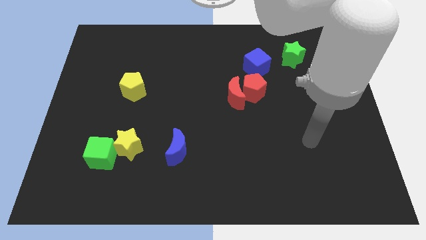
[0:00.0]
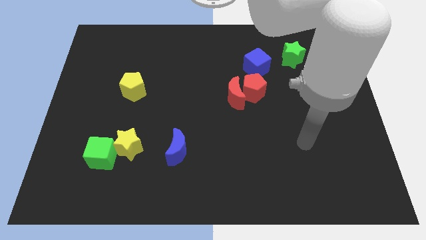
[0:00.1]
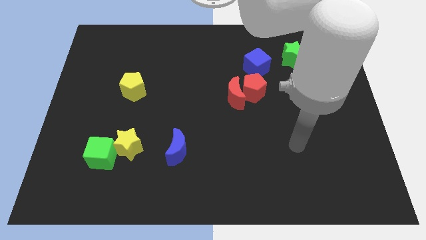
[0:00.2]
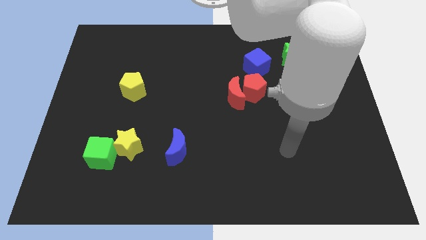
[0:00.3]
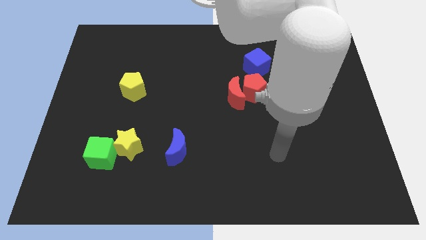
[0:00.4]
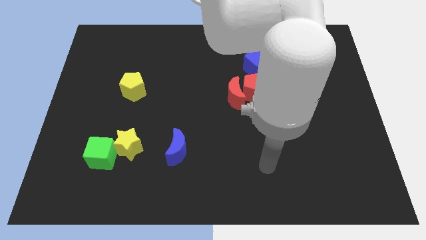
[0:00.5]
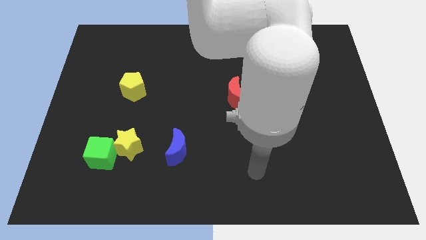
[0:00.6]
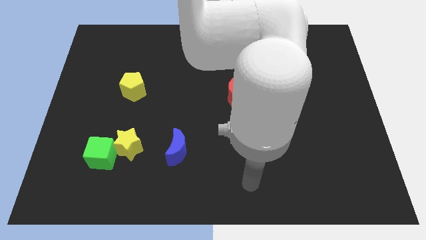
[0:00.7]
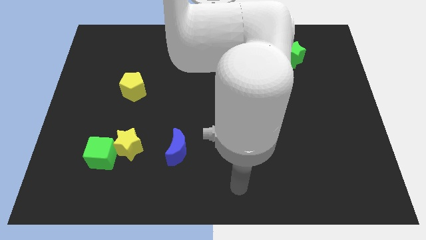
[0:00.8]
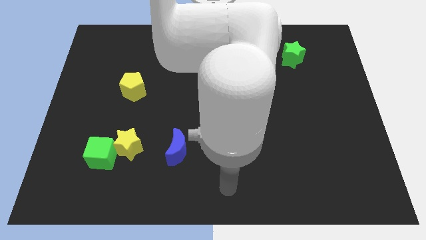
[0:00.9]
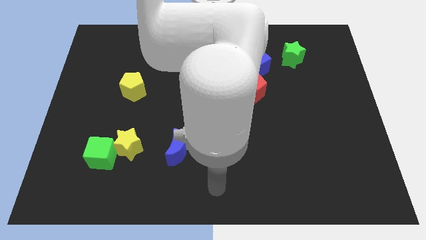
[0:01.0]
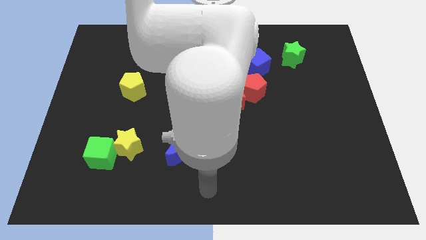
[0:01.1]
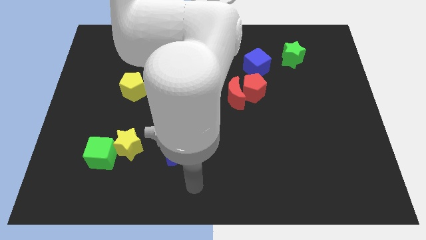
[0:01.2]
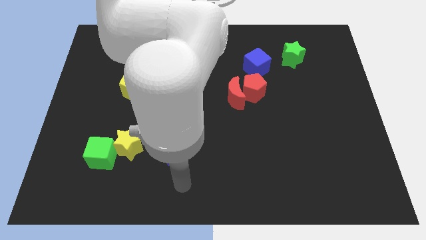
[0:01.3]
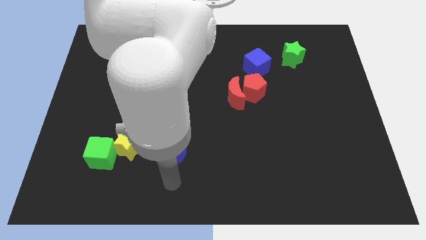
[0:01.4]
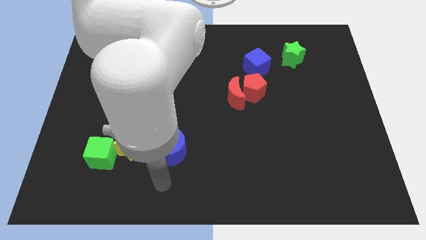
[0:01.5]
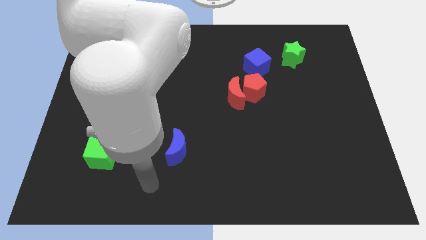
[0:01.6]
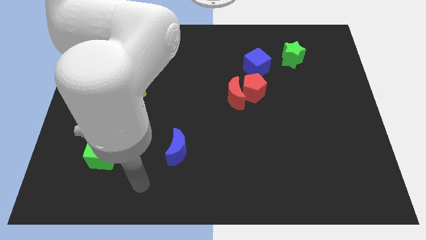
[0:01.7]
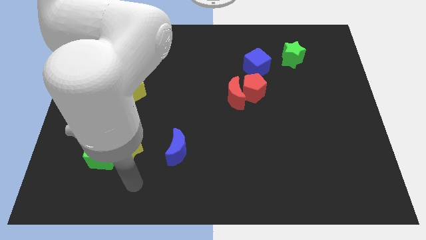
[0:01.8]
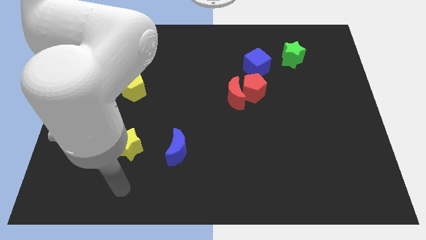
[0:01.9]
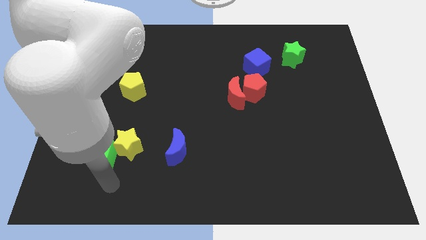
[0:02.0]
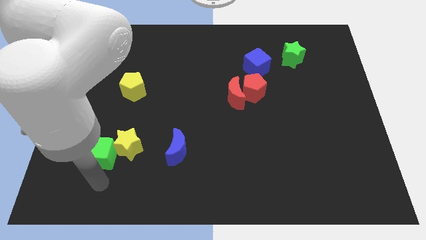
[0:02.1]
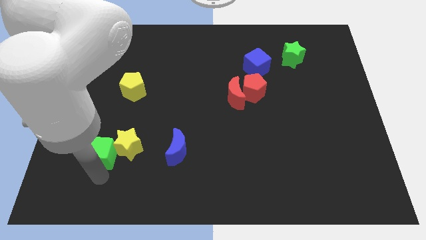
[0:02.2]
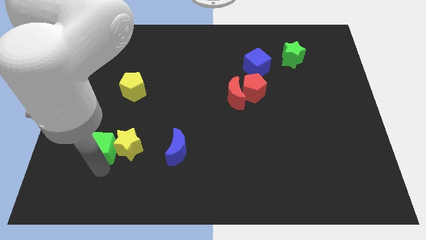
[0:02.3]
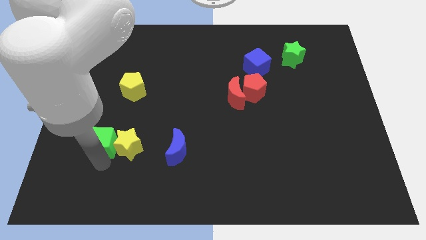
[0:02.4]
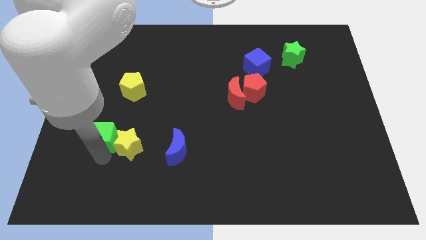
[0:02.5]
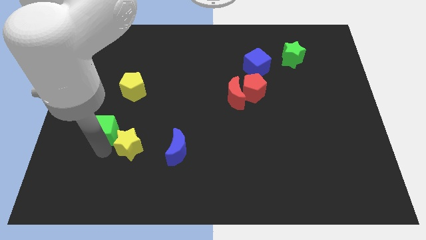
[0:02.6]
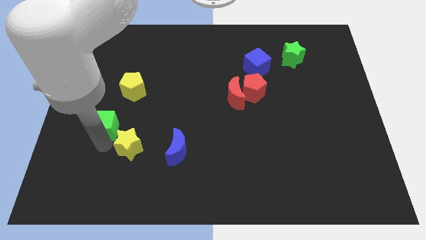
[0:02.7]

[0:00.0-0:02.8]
push the green cube somewhat up

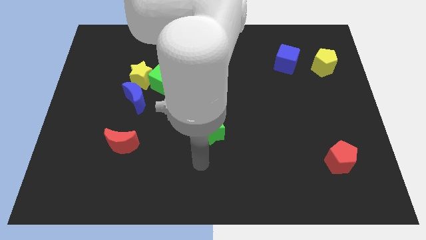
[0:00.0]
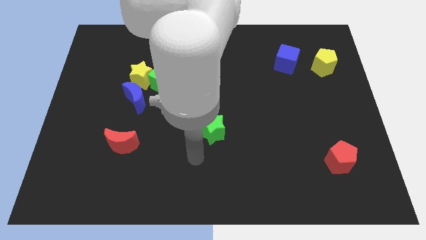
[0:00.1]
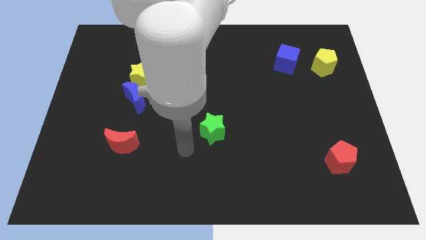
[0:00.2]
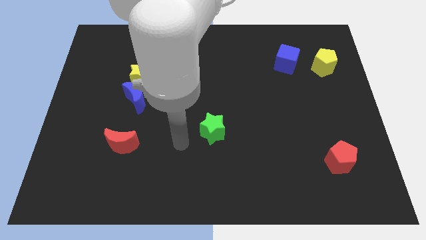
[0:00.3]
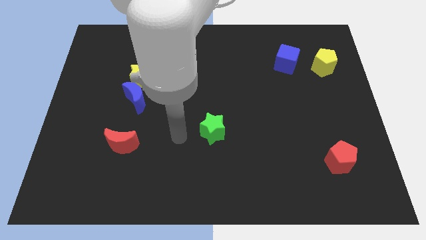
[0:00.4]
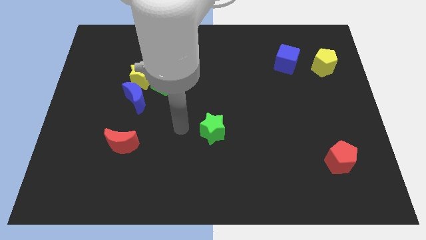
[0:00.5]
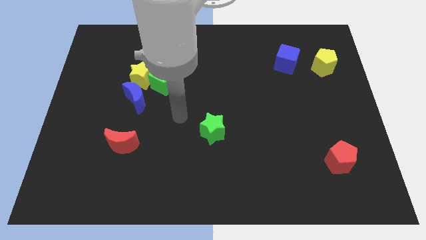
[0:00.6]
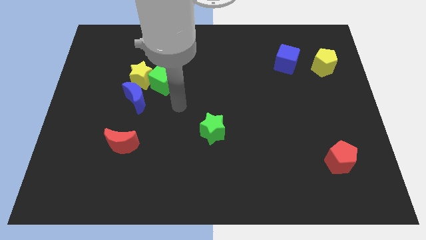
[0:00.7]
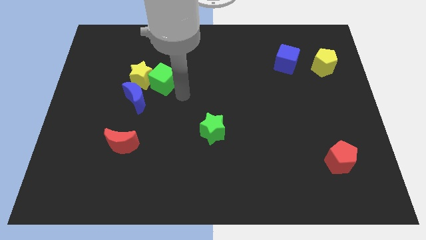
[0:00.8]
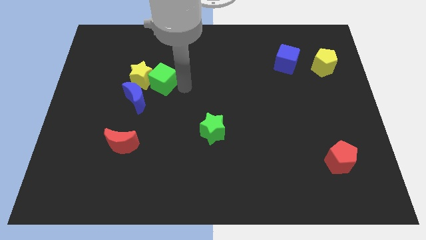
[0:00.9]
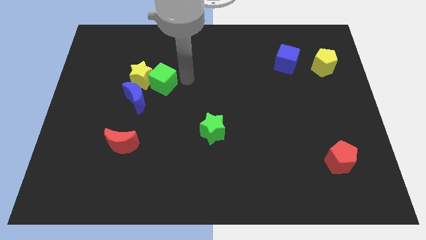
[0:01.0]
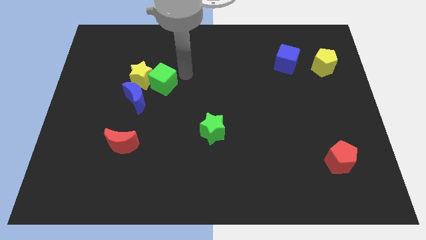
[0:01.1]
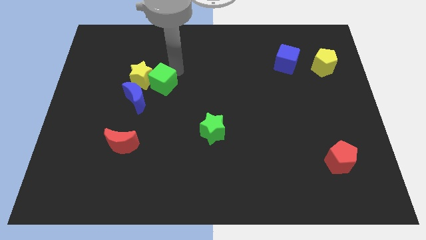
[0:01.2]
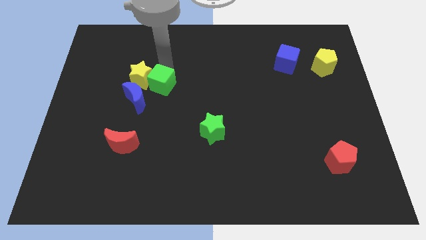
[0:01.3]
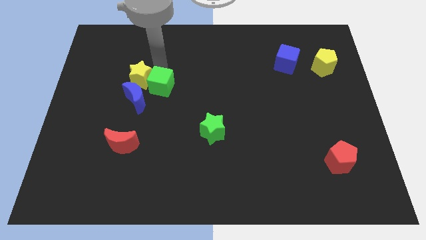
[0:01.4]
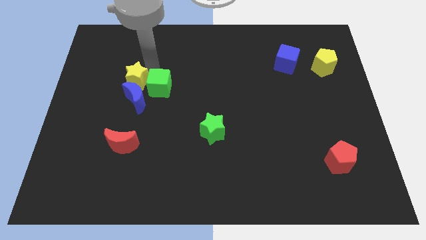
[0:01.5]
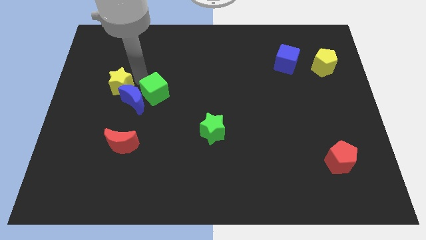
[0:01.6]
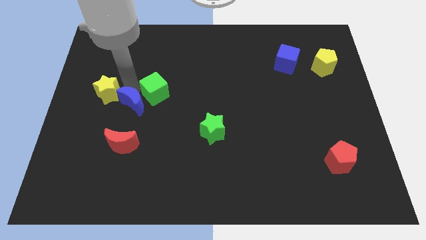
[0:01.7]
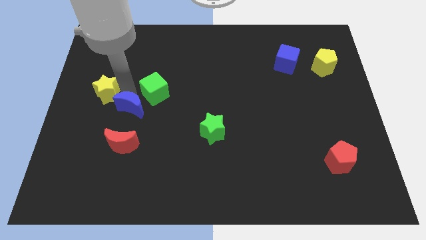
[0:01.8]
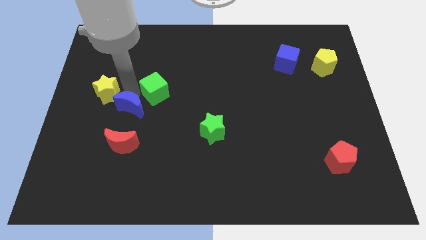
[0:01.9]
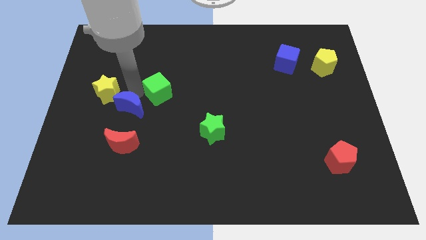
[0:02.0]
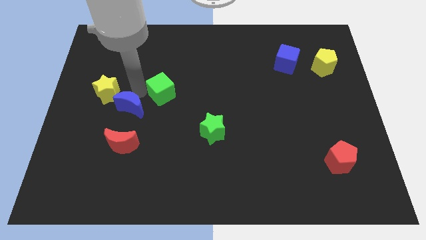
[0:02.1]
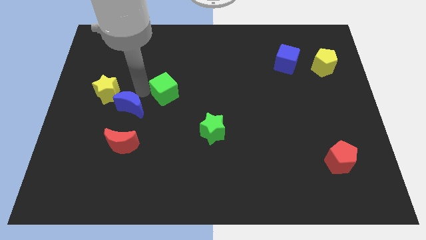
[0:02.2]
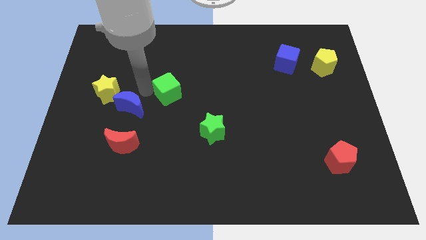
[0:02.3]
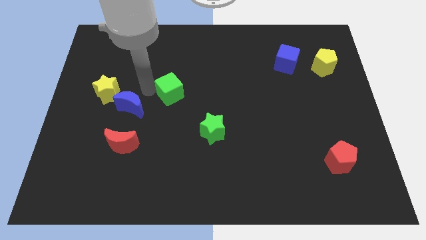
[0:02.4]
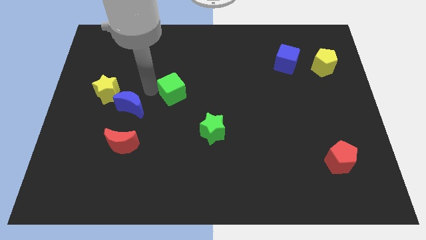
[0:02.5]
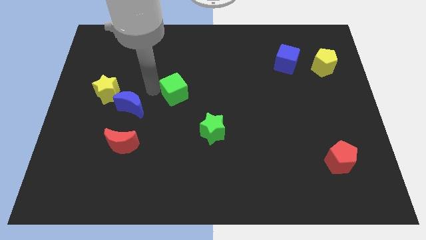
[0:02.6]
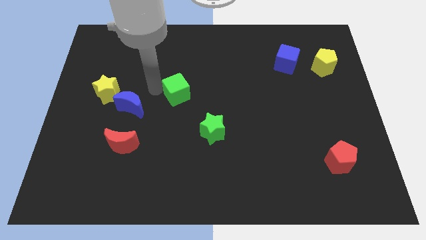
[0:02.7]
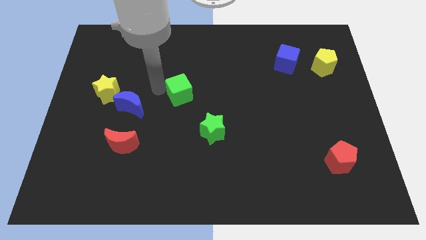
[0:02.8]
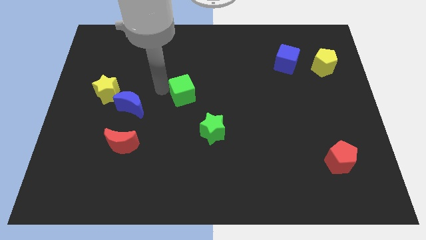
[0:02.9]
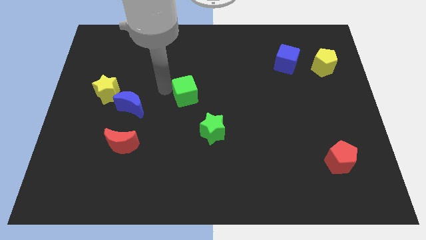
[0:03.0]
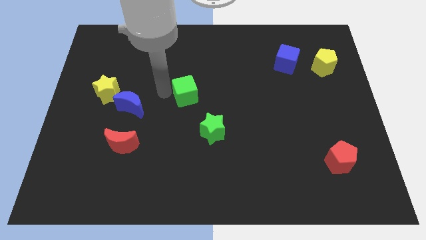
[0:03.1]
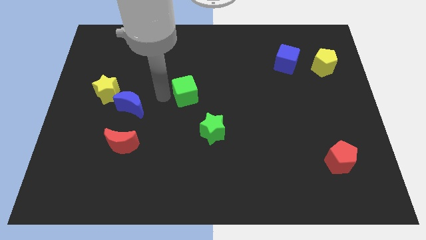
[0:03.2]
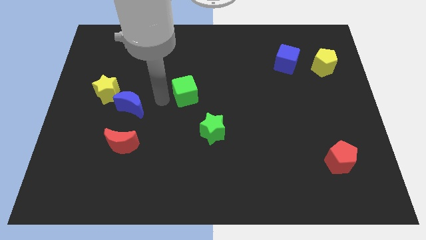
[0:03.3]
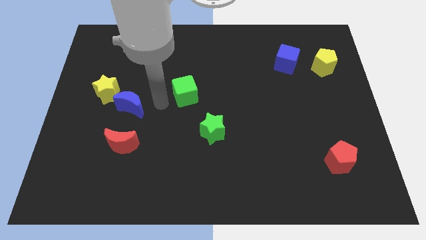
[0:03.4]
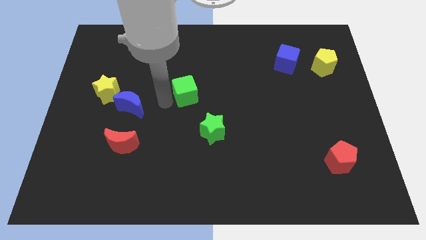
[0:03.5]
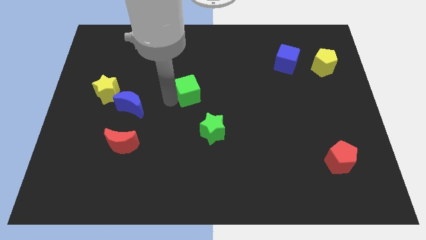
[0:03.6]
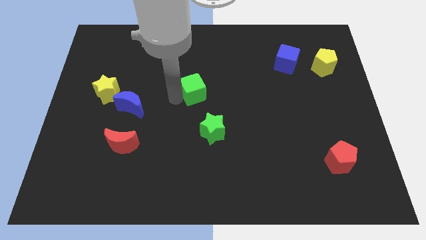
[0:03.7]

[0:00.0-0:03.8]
slightly push the green cube right

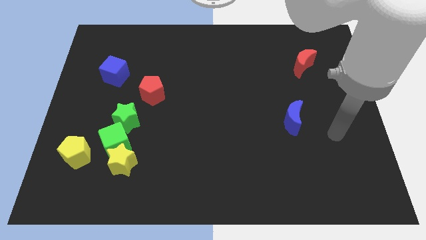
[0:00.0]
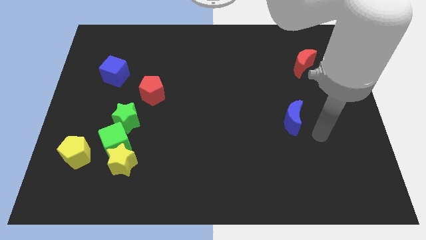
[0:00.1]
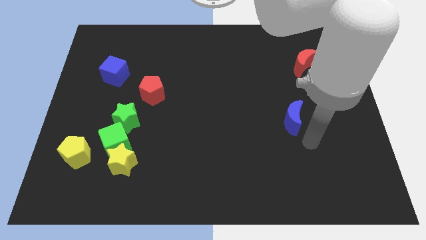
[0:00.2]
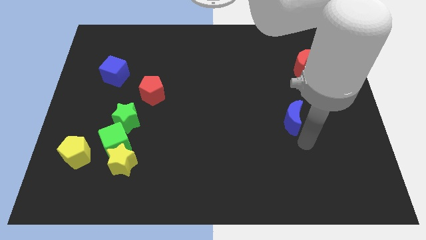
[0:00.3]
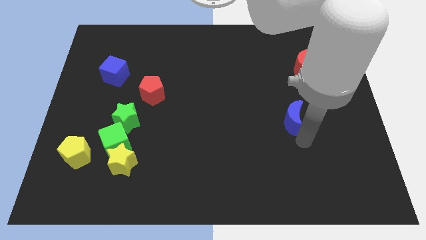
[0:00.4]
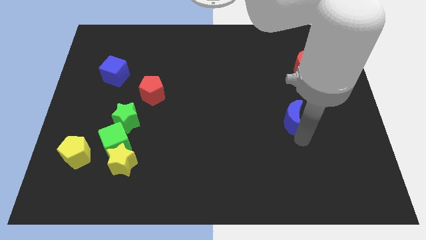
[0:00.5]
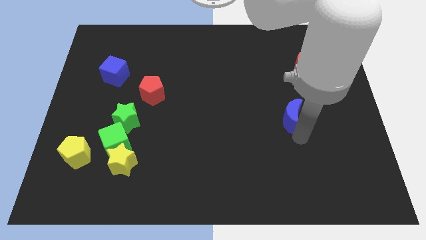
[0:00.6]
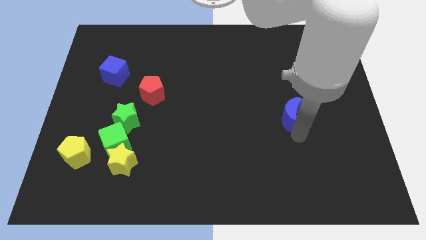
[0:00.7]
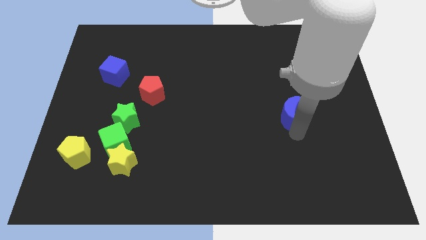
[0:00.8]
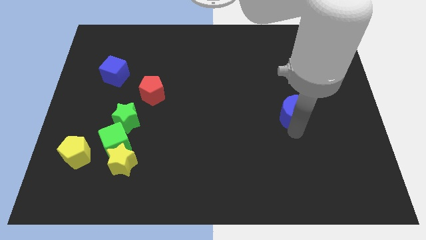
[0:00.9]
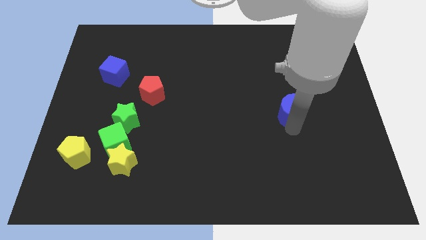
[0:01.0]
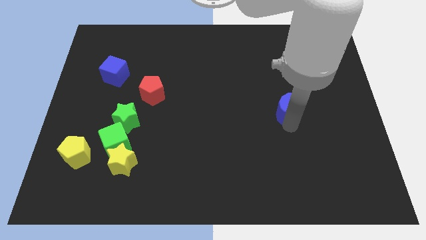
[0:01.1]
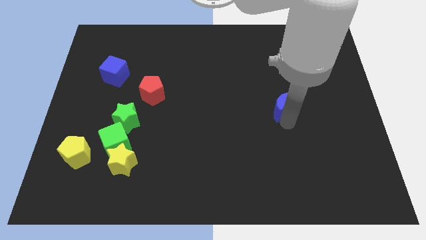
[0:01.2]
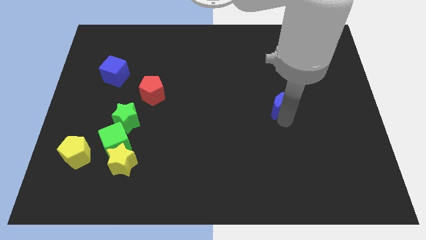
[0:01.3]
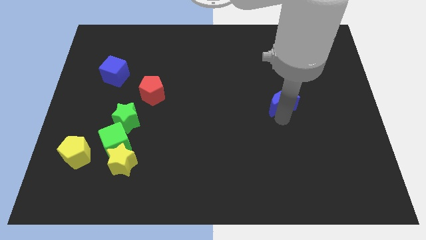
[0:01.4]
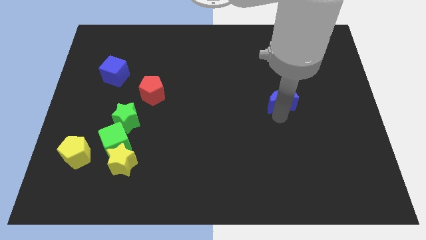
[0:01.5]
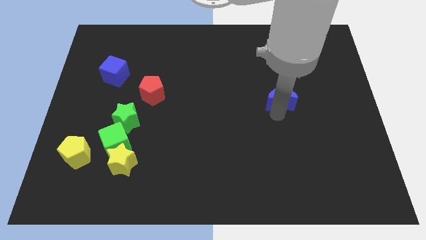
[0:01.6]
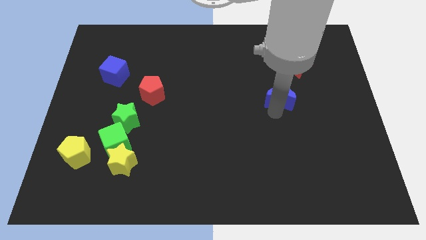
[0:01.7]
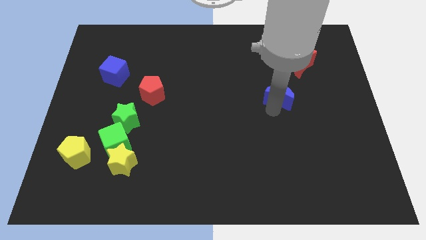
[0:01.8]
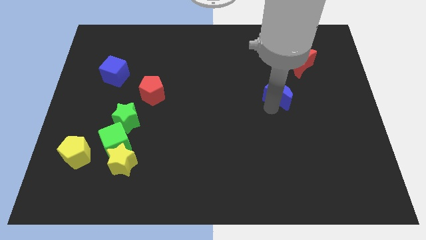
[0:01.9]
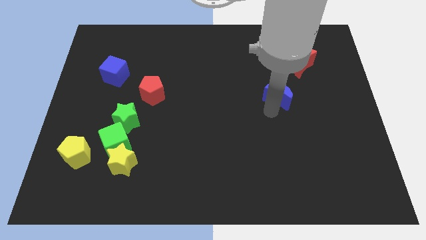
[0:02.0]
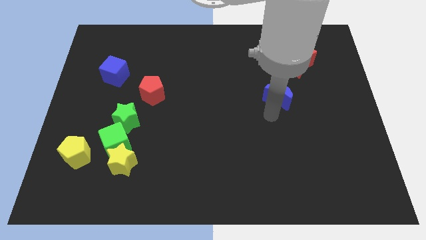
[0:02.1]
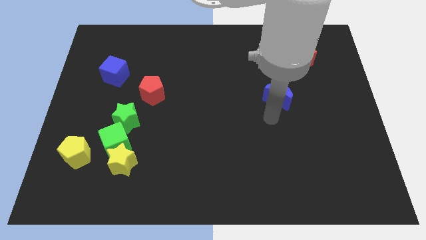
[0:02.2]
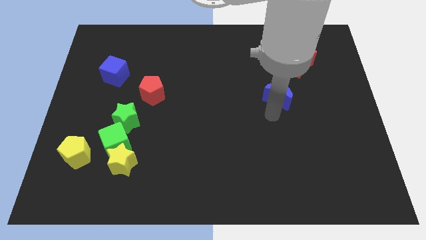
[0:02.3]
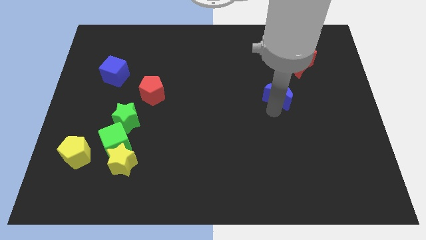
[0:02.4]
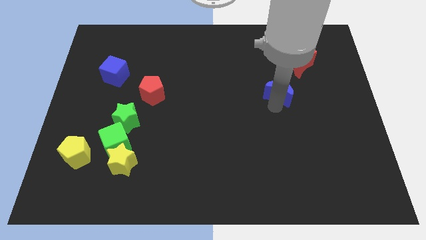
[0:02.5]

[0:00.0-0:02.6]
move the blue moon upwards a bit
